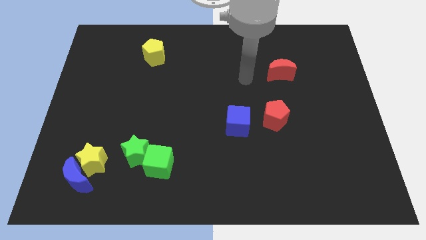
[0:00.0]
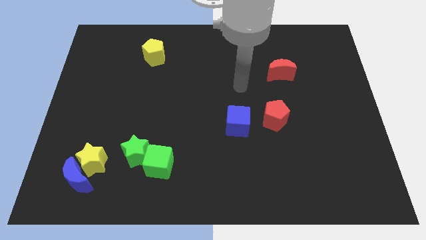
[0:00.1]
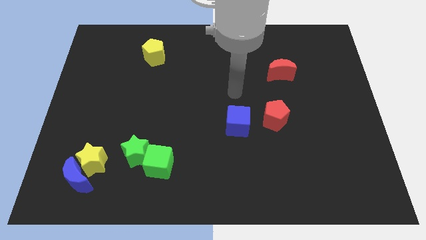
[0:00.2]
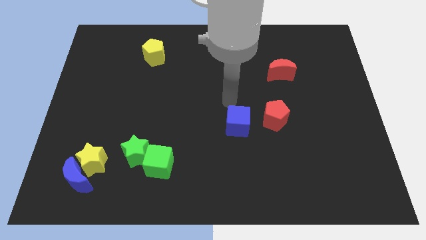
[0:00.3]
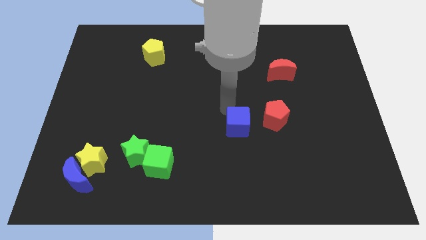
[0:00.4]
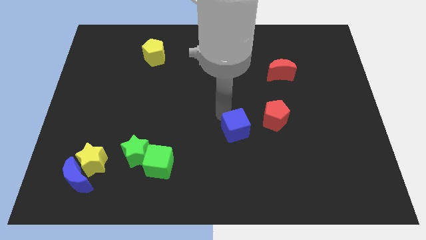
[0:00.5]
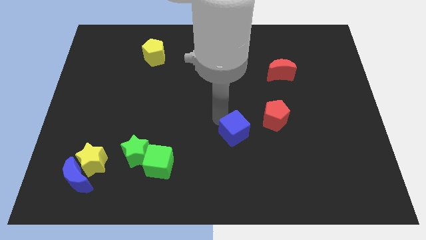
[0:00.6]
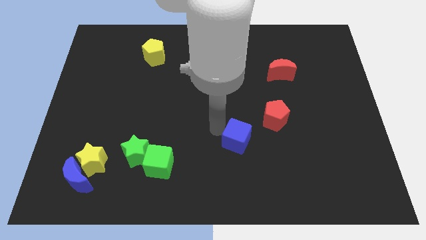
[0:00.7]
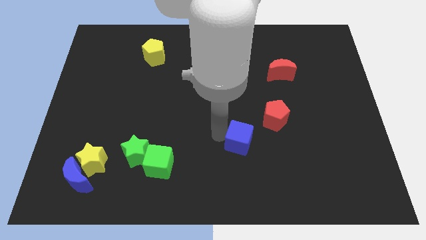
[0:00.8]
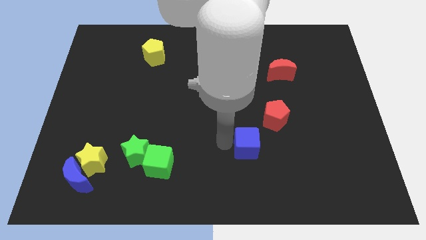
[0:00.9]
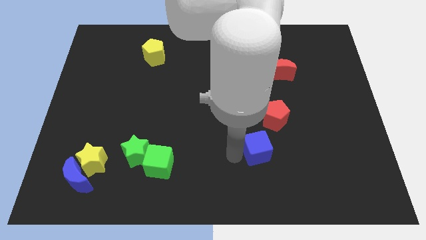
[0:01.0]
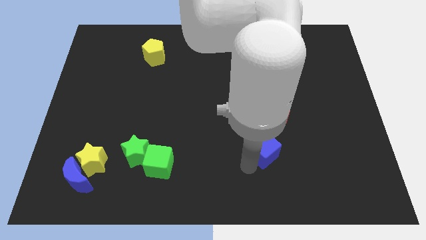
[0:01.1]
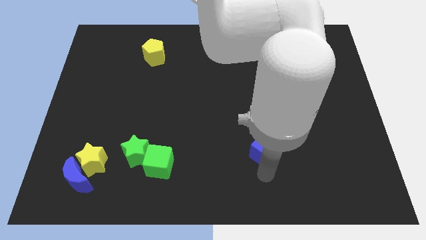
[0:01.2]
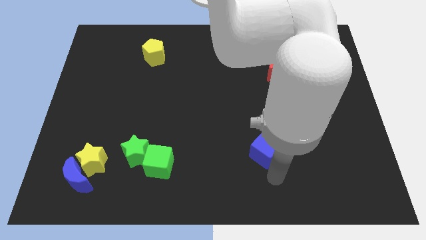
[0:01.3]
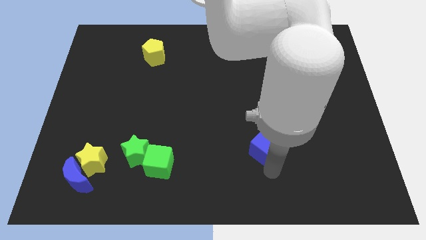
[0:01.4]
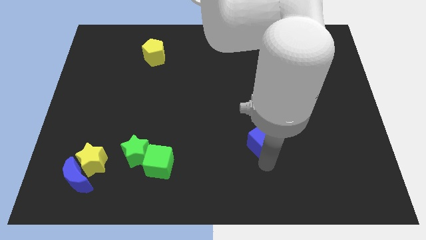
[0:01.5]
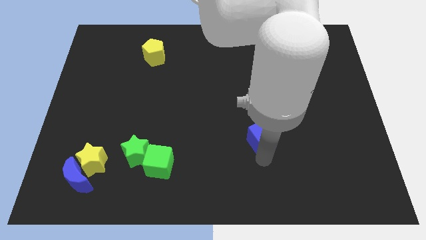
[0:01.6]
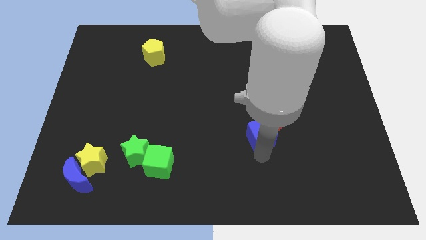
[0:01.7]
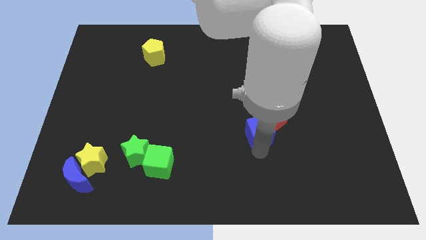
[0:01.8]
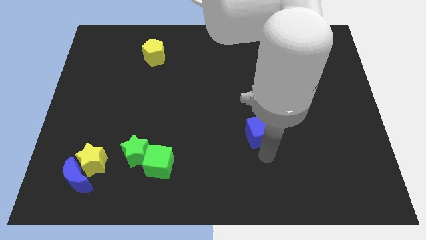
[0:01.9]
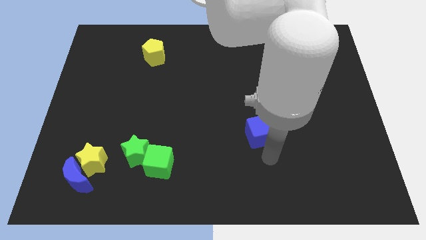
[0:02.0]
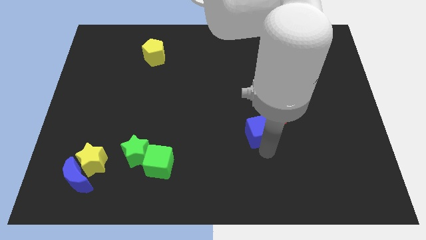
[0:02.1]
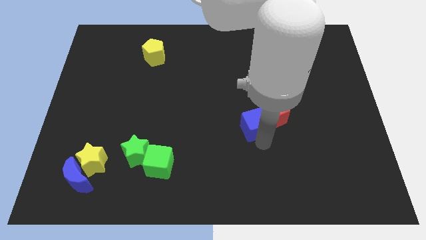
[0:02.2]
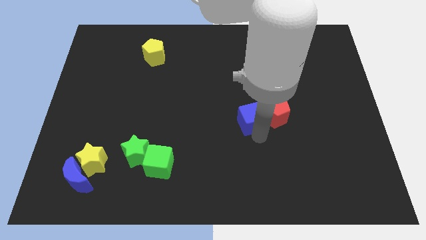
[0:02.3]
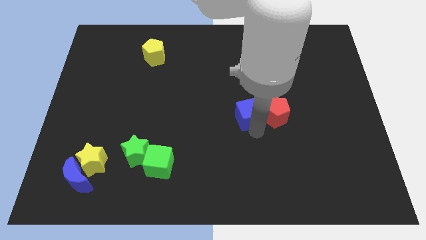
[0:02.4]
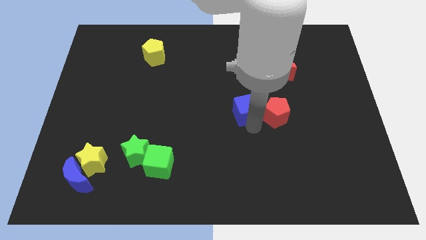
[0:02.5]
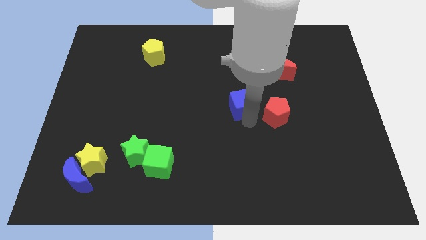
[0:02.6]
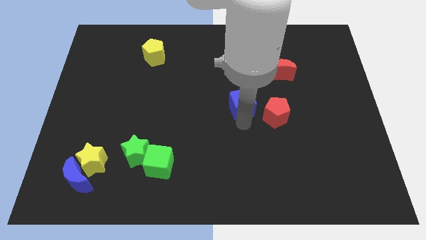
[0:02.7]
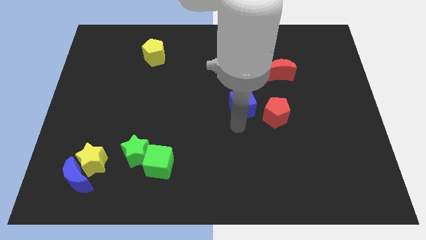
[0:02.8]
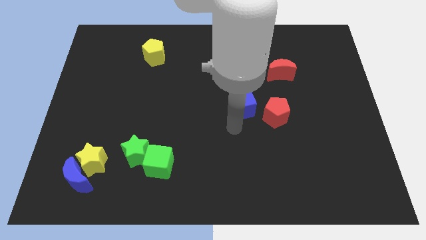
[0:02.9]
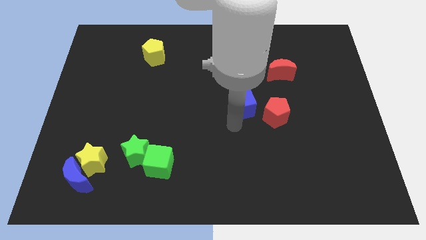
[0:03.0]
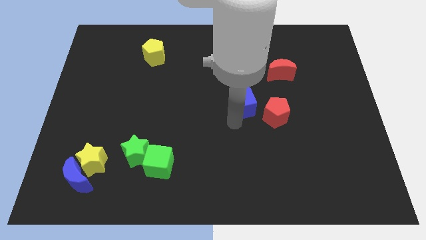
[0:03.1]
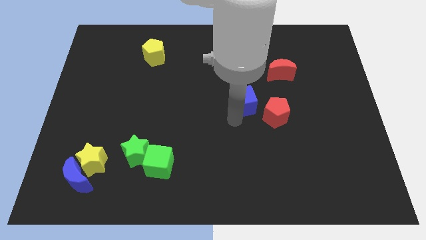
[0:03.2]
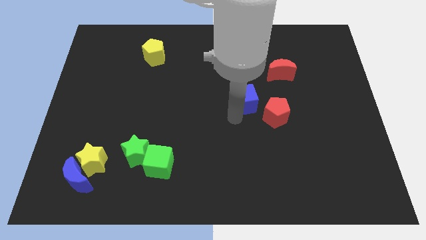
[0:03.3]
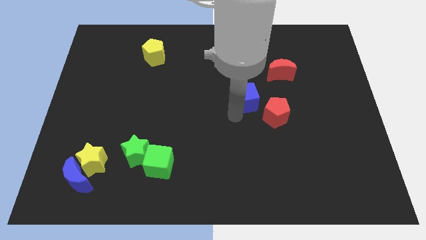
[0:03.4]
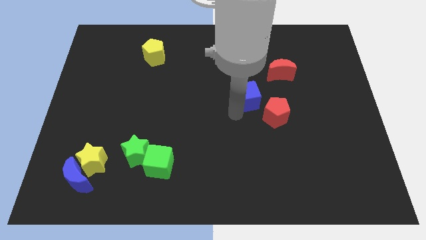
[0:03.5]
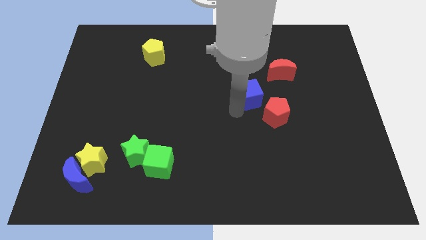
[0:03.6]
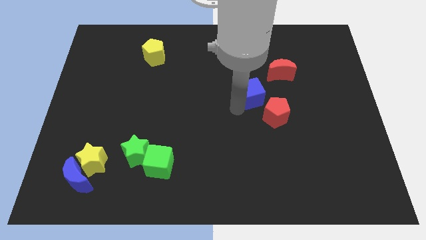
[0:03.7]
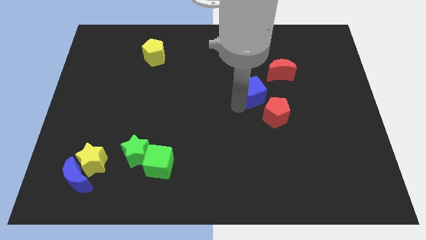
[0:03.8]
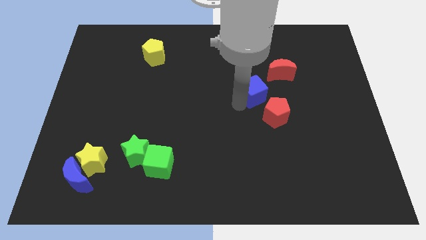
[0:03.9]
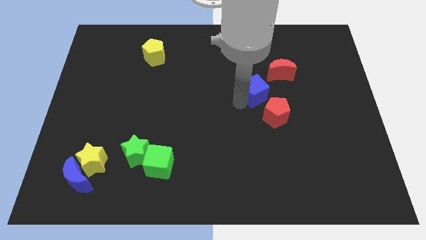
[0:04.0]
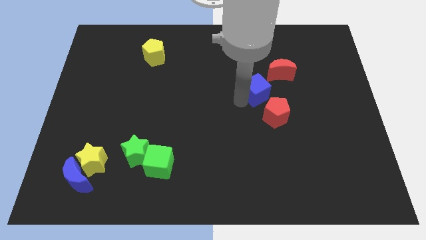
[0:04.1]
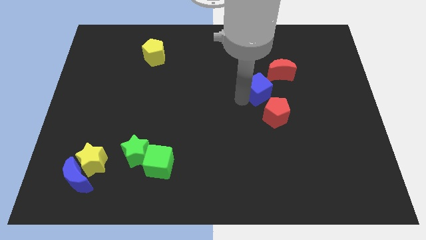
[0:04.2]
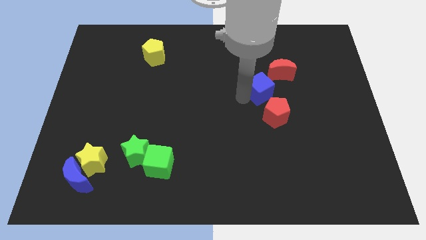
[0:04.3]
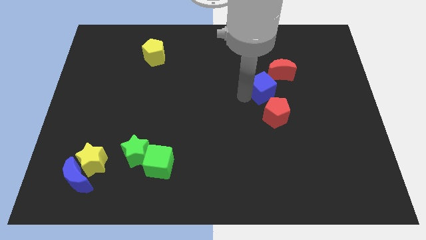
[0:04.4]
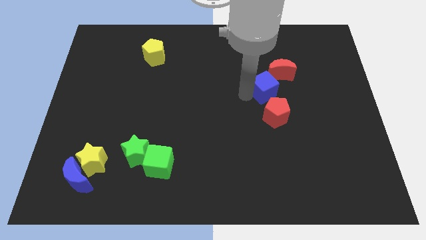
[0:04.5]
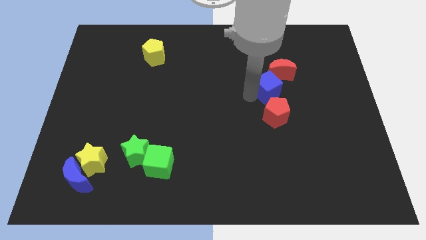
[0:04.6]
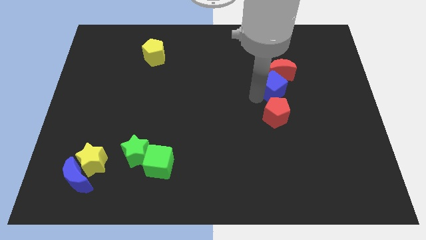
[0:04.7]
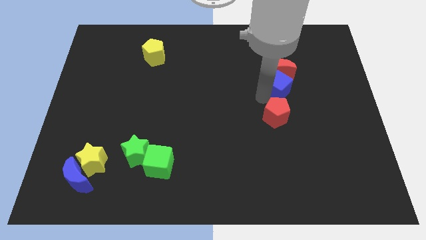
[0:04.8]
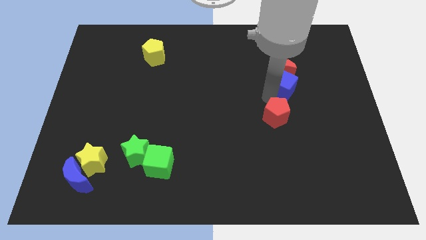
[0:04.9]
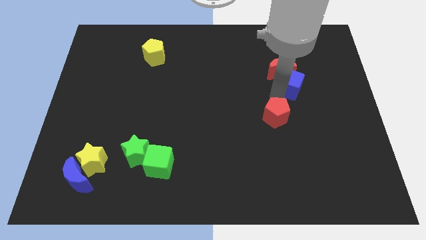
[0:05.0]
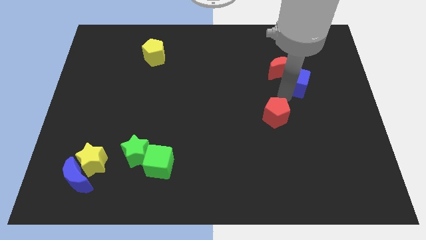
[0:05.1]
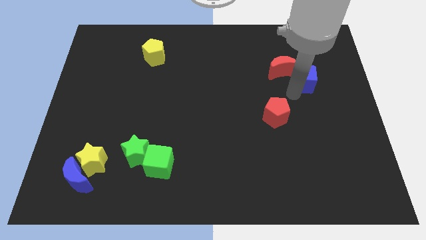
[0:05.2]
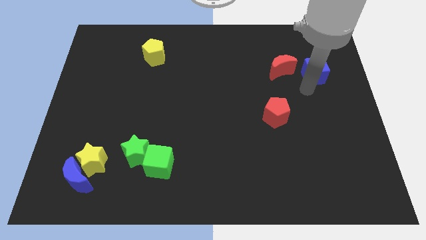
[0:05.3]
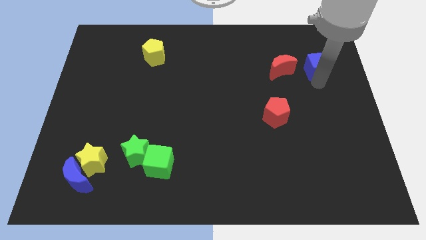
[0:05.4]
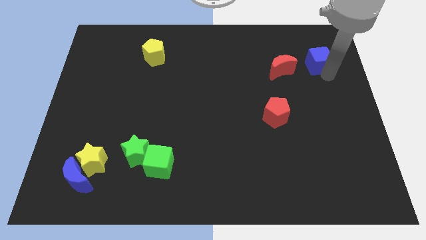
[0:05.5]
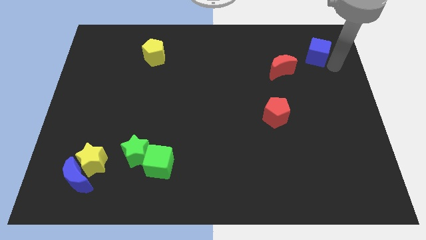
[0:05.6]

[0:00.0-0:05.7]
move the blue cube diagonally up and to the right of the red moon

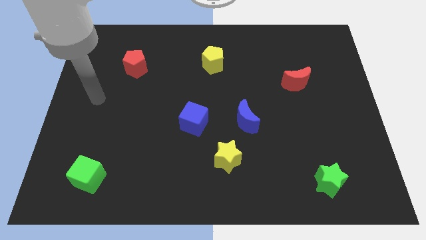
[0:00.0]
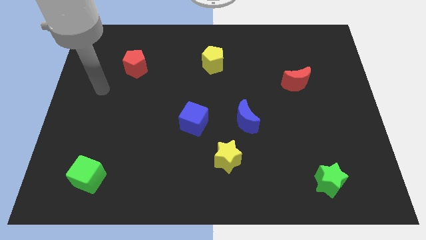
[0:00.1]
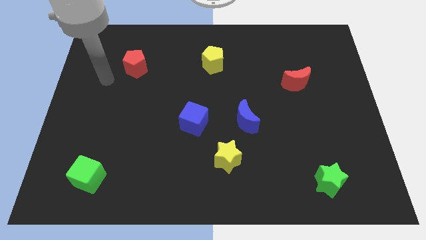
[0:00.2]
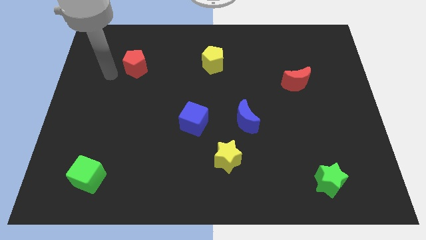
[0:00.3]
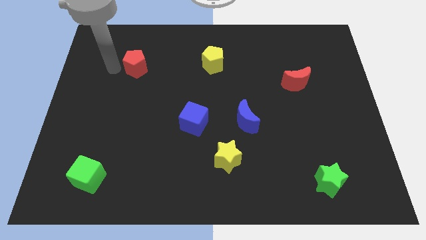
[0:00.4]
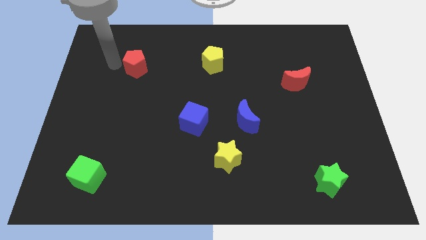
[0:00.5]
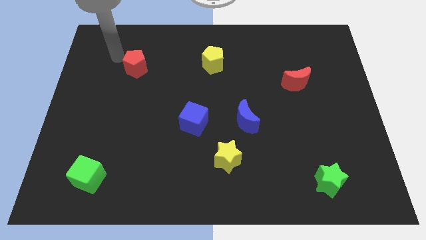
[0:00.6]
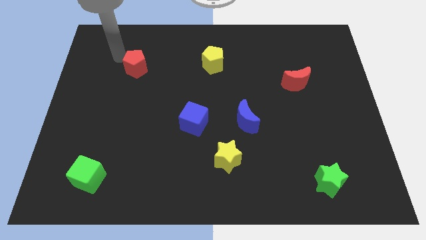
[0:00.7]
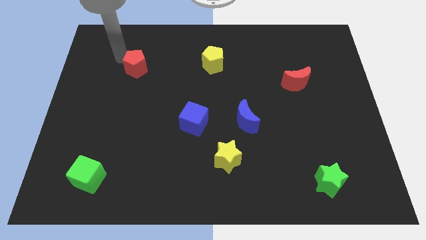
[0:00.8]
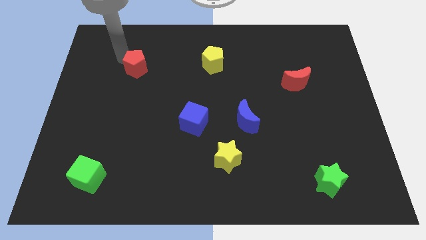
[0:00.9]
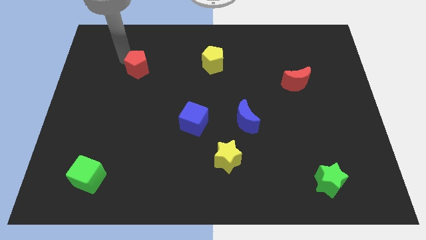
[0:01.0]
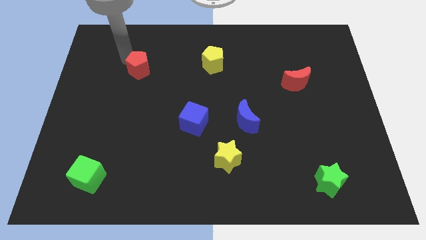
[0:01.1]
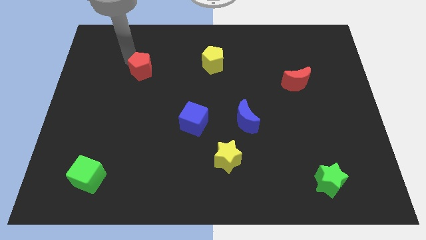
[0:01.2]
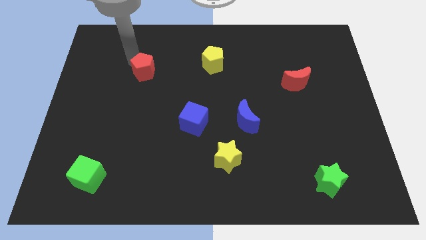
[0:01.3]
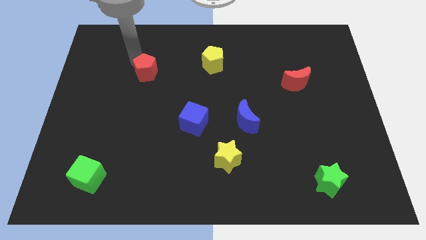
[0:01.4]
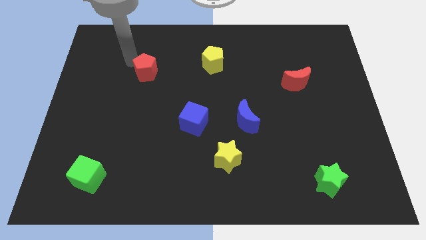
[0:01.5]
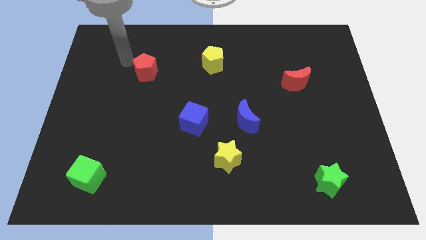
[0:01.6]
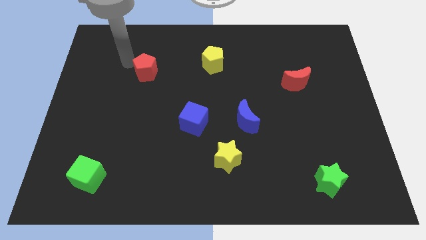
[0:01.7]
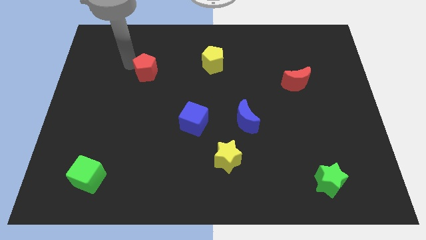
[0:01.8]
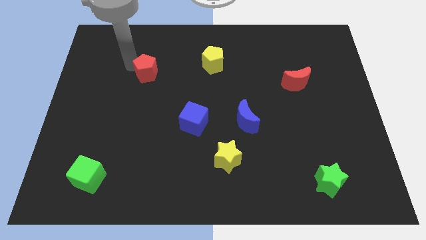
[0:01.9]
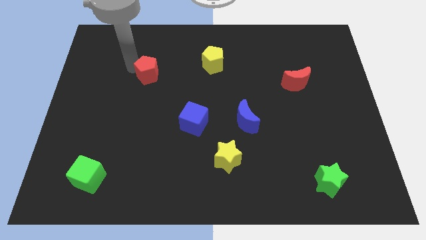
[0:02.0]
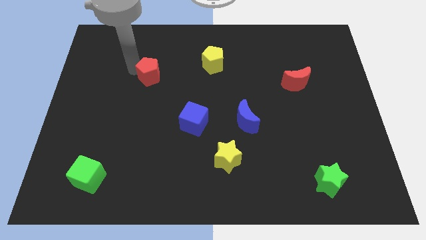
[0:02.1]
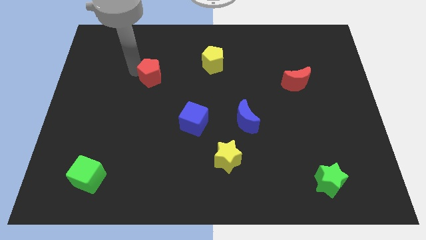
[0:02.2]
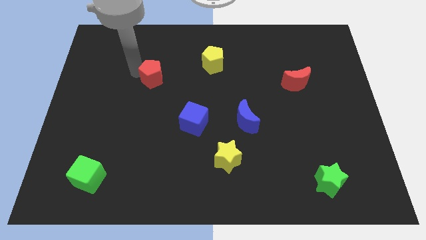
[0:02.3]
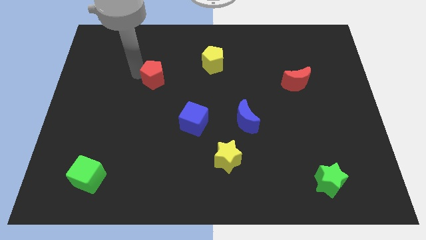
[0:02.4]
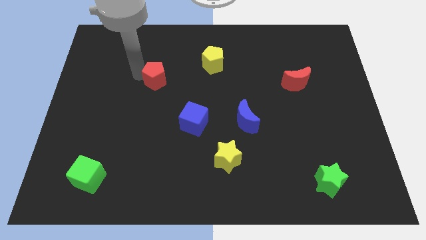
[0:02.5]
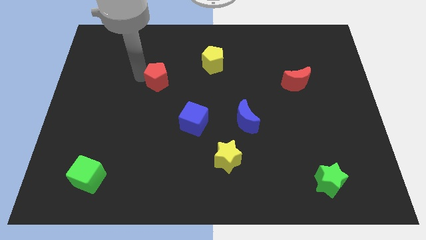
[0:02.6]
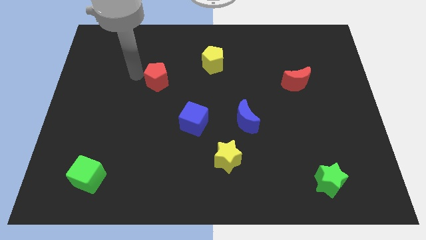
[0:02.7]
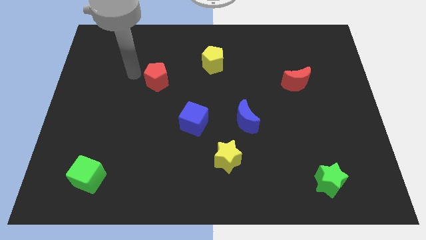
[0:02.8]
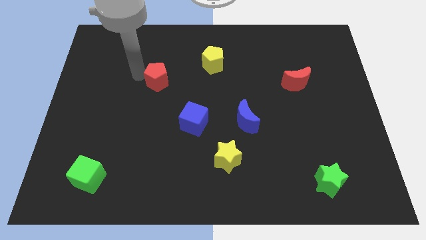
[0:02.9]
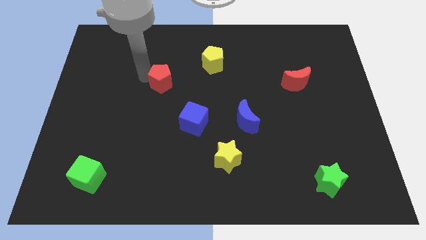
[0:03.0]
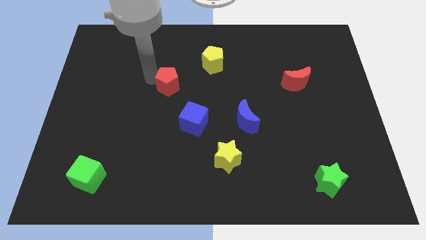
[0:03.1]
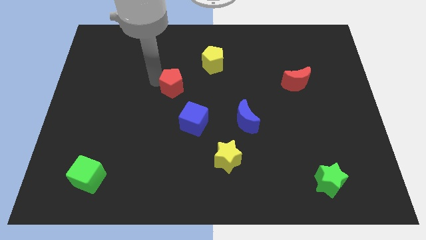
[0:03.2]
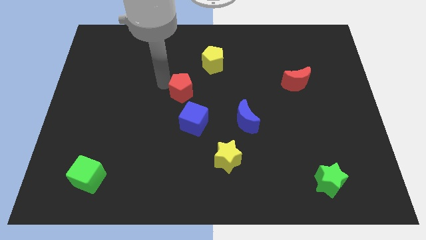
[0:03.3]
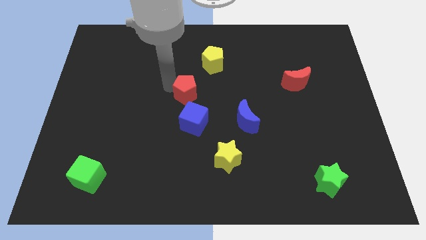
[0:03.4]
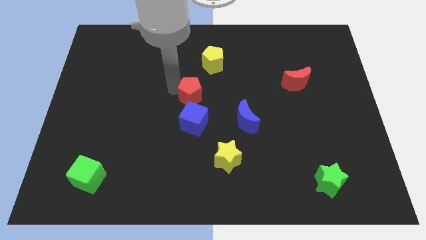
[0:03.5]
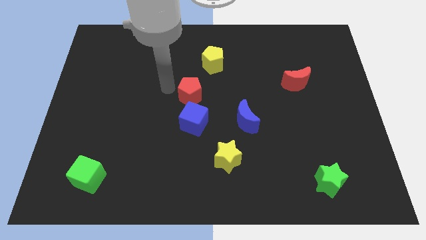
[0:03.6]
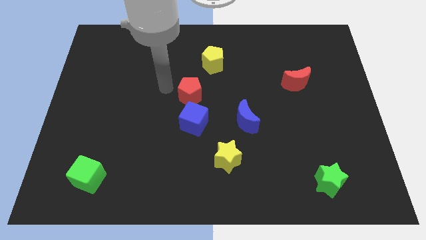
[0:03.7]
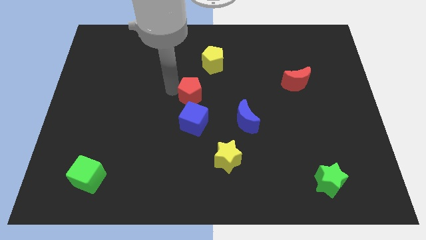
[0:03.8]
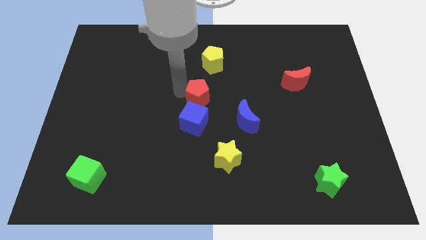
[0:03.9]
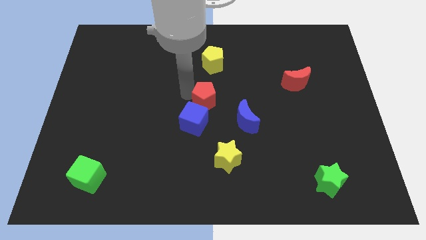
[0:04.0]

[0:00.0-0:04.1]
slide the red pentagon to the top left of the blue moon
